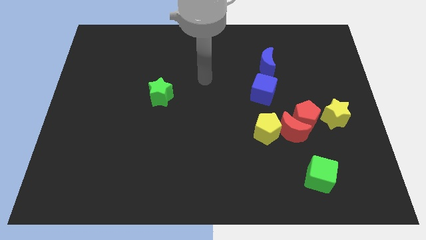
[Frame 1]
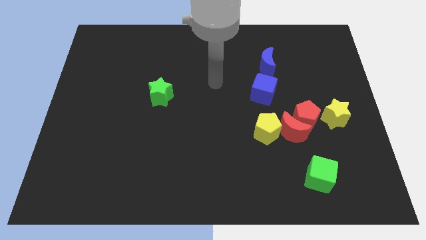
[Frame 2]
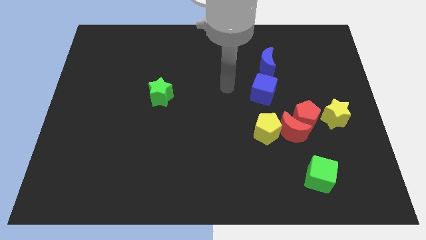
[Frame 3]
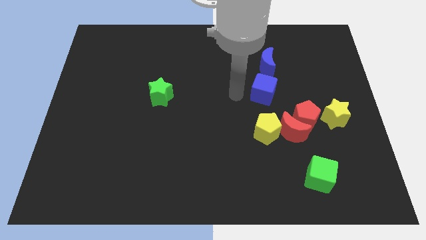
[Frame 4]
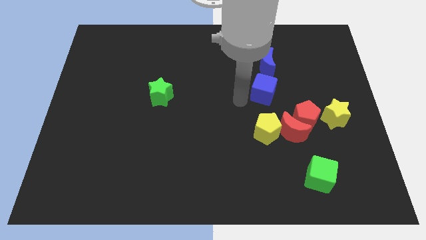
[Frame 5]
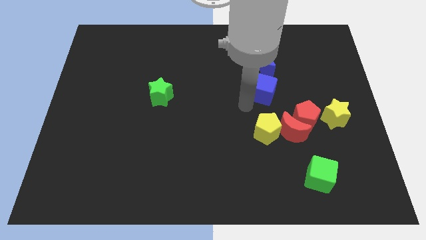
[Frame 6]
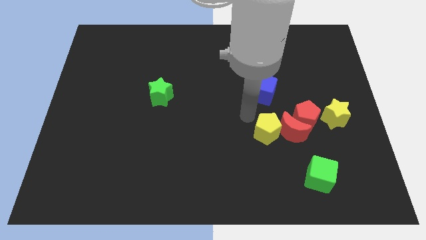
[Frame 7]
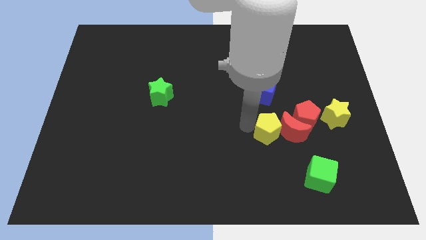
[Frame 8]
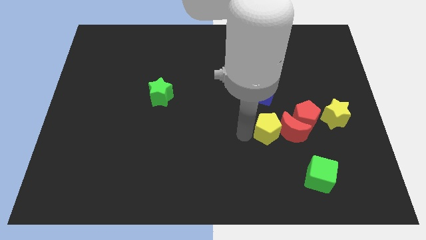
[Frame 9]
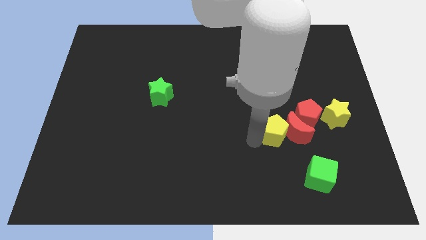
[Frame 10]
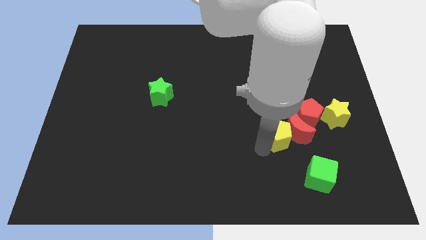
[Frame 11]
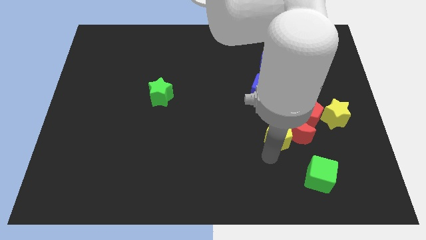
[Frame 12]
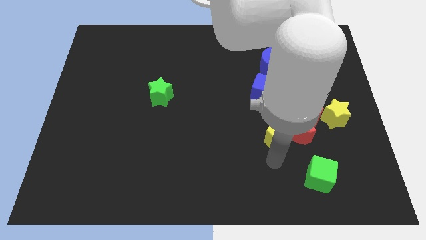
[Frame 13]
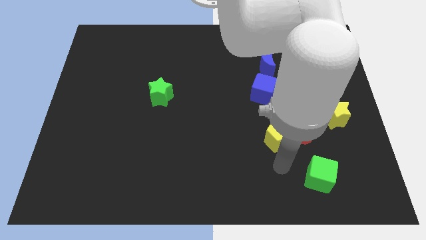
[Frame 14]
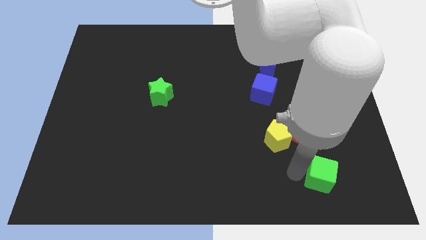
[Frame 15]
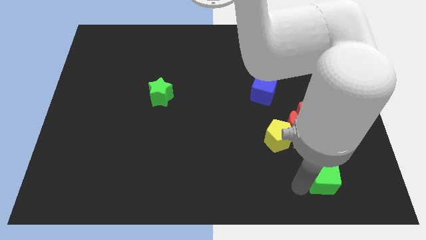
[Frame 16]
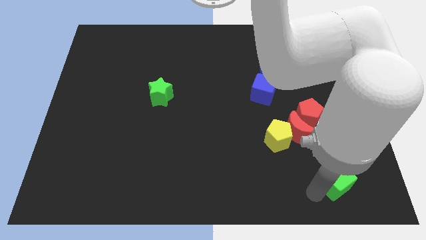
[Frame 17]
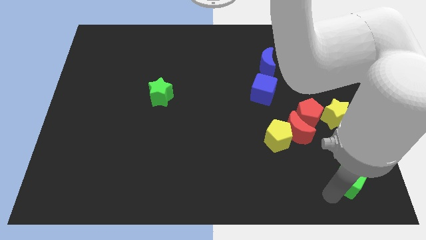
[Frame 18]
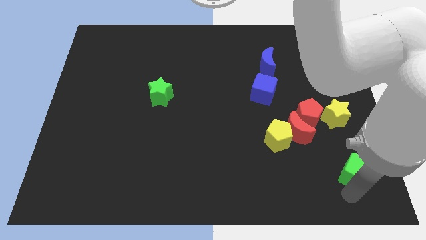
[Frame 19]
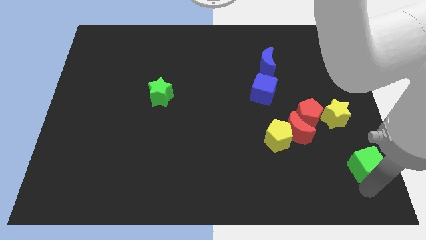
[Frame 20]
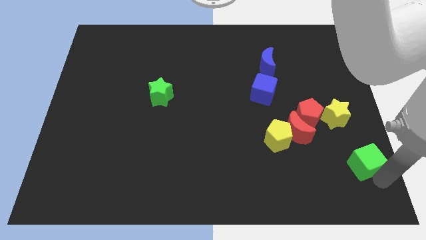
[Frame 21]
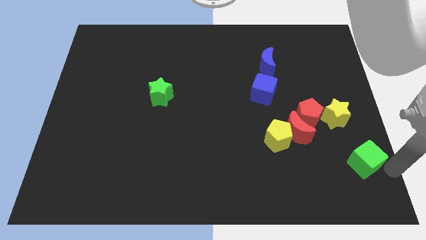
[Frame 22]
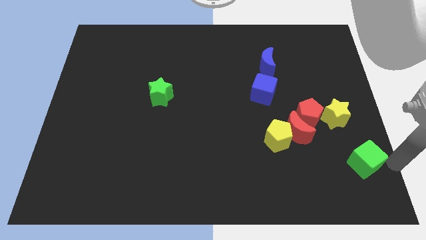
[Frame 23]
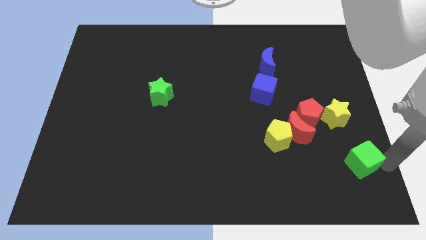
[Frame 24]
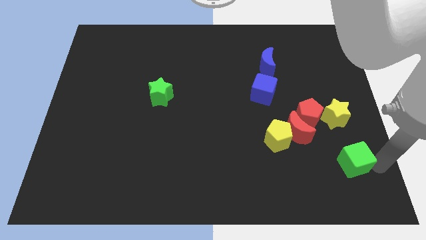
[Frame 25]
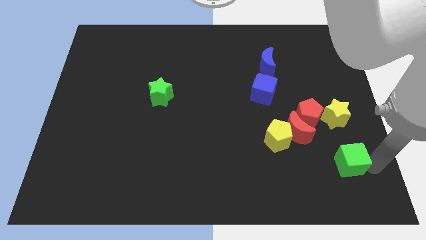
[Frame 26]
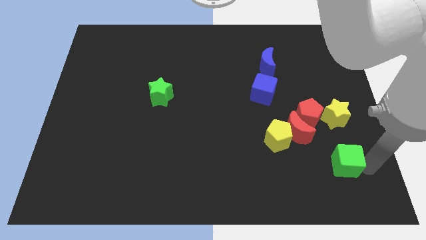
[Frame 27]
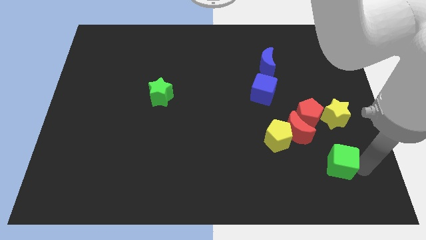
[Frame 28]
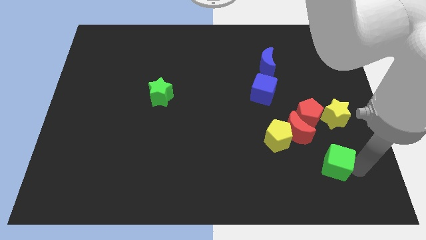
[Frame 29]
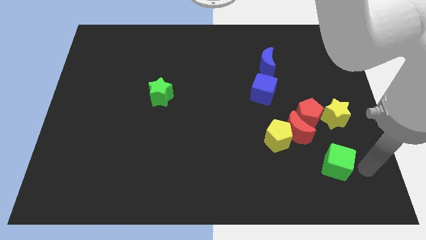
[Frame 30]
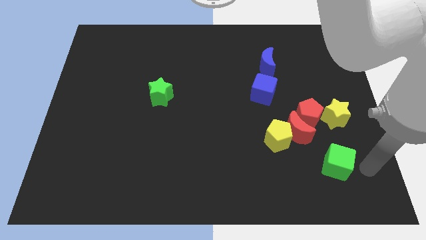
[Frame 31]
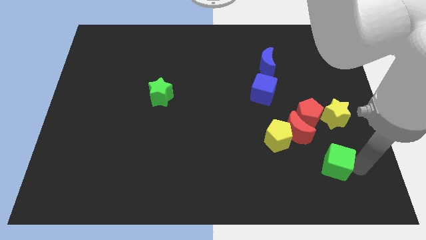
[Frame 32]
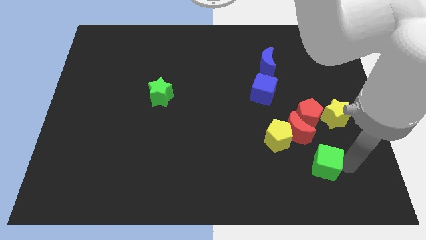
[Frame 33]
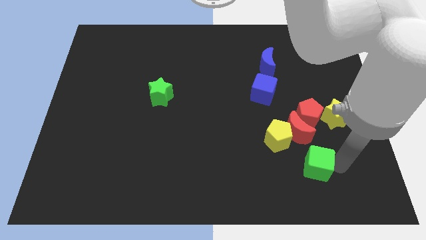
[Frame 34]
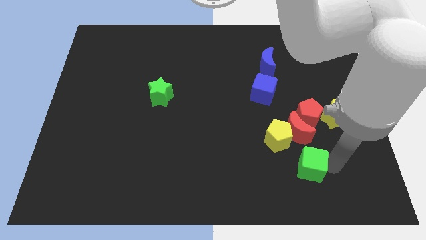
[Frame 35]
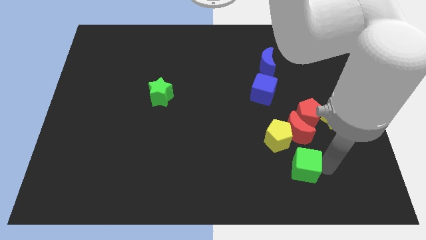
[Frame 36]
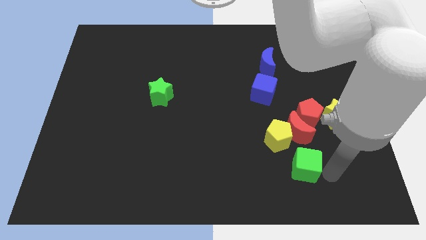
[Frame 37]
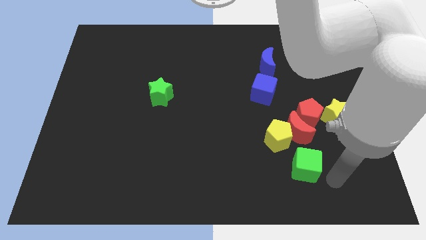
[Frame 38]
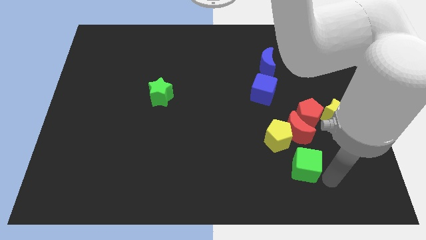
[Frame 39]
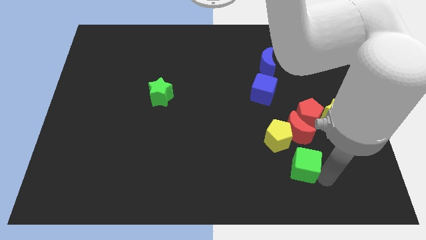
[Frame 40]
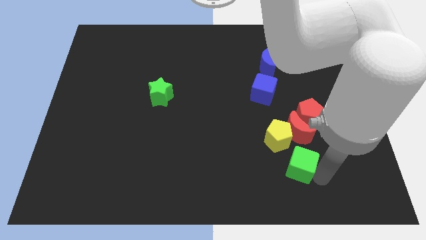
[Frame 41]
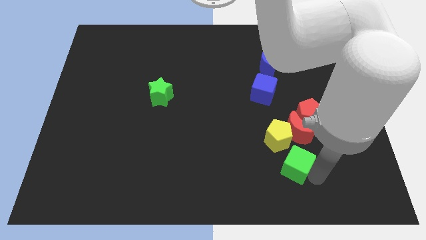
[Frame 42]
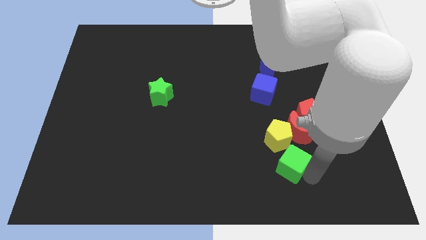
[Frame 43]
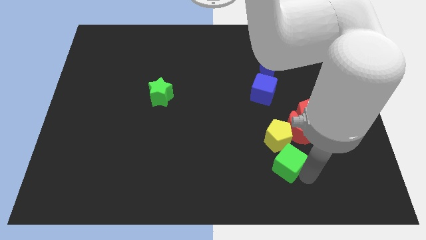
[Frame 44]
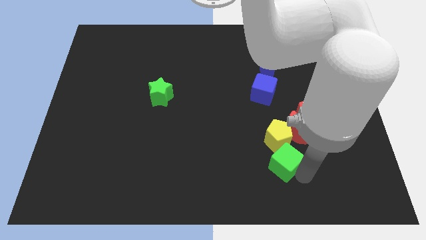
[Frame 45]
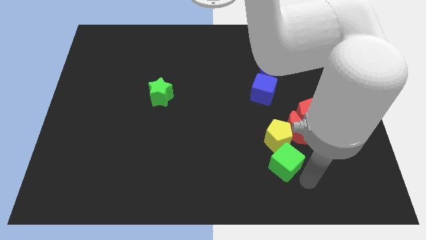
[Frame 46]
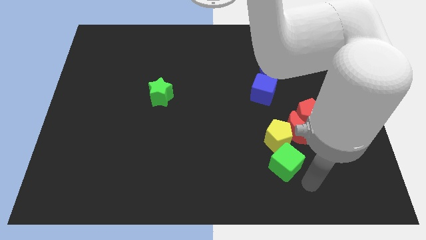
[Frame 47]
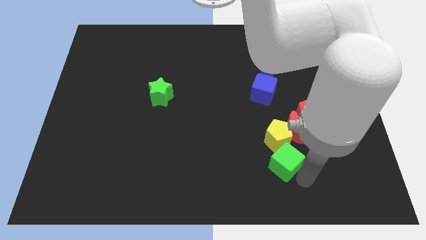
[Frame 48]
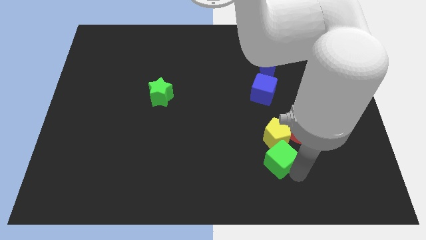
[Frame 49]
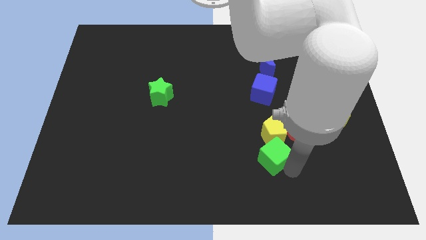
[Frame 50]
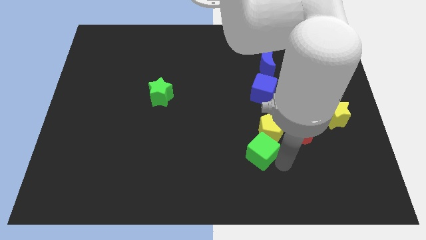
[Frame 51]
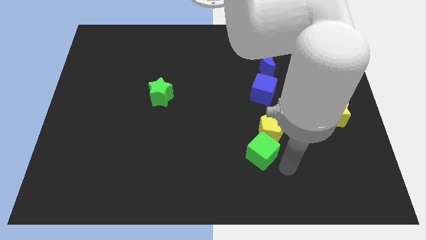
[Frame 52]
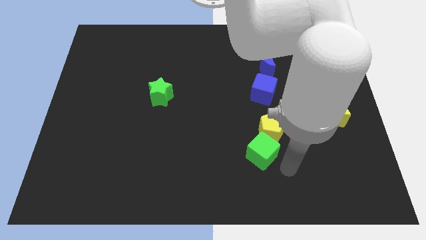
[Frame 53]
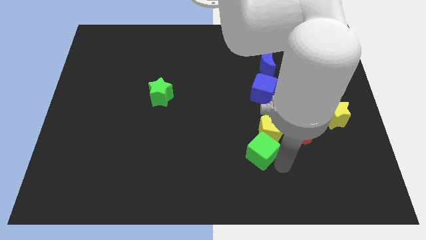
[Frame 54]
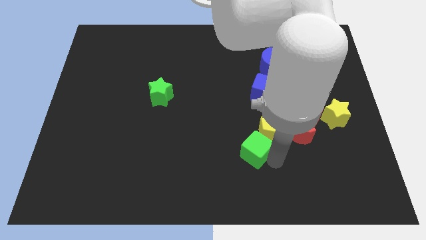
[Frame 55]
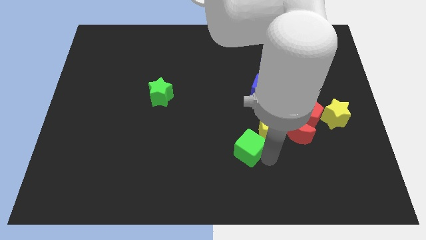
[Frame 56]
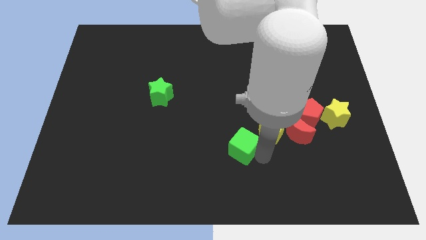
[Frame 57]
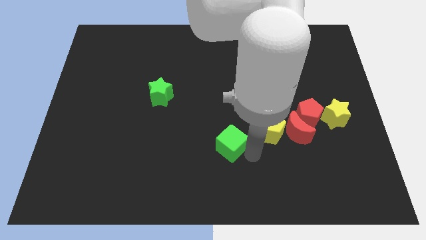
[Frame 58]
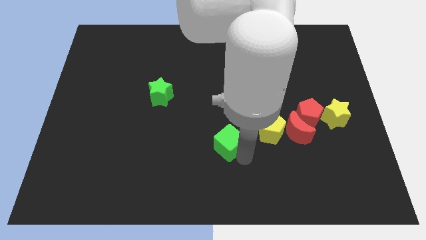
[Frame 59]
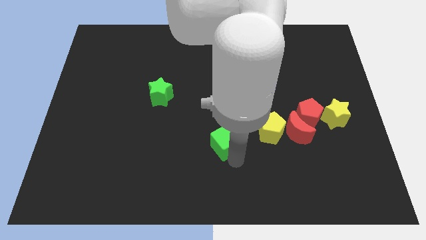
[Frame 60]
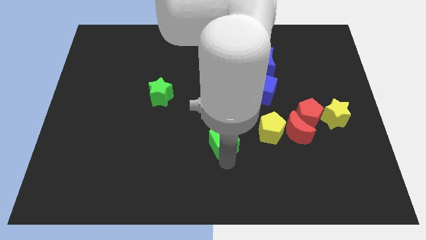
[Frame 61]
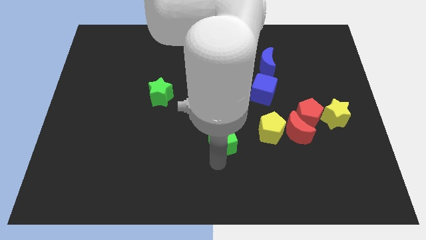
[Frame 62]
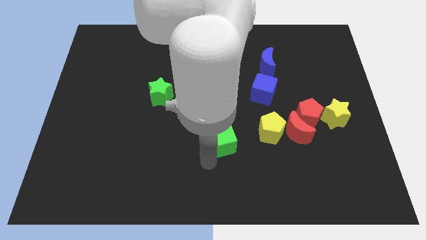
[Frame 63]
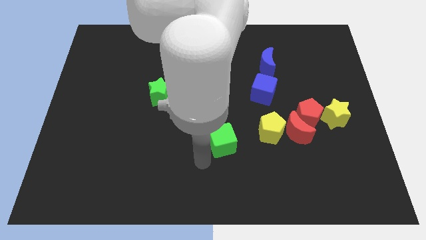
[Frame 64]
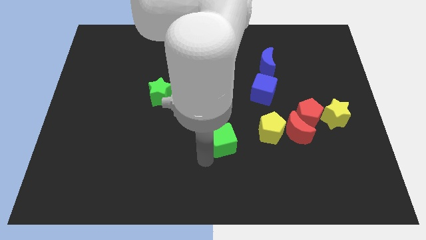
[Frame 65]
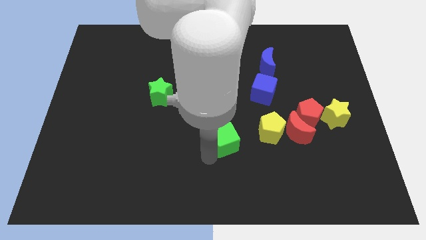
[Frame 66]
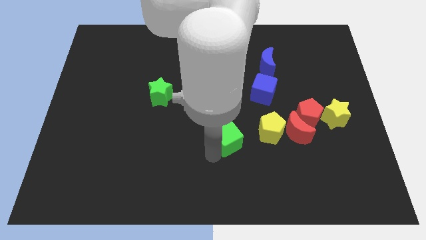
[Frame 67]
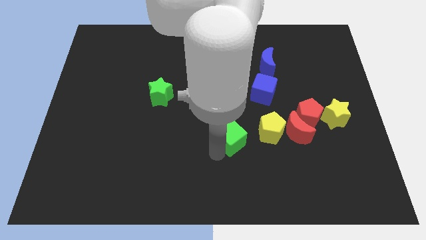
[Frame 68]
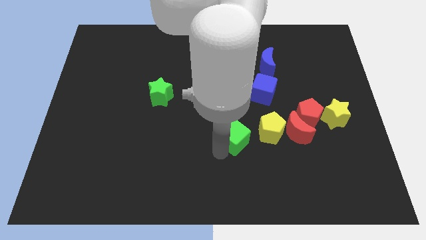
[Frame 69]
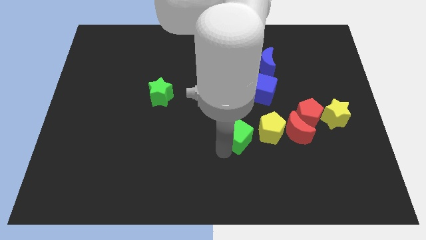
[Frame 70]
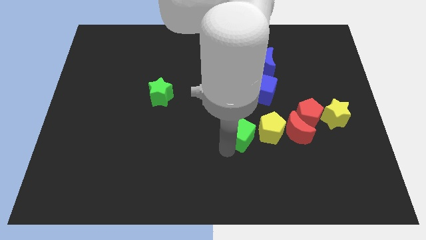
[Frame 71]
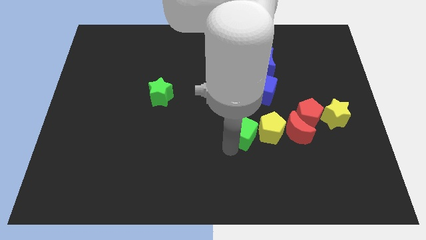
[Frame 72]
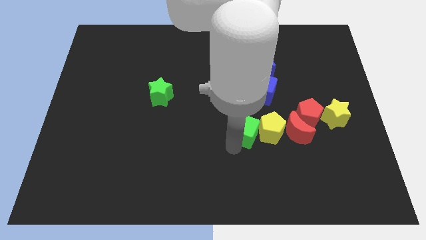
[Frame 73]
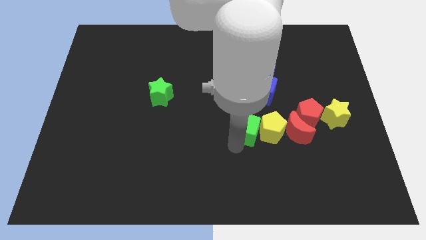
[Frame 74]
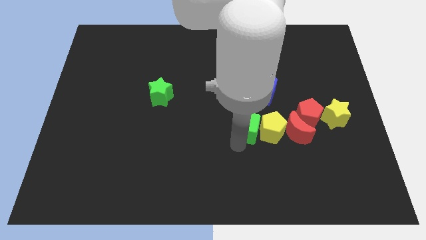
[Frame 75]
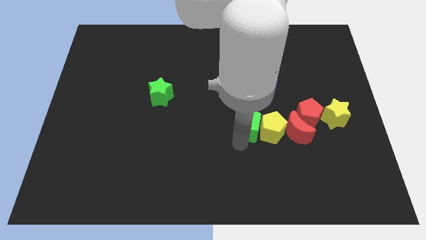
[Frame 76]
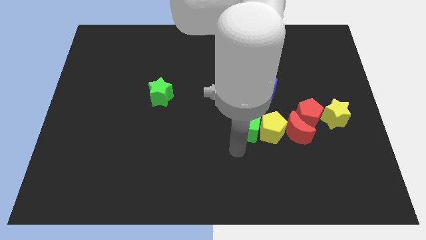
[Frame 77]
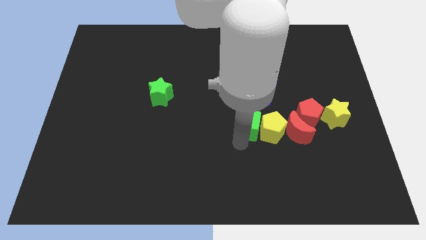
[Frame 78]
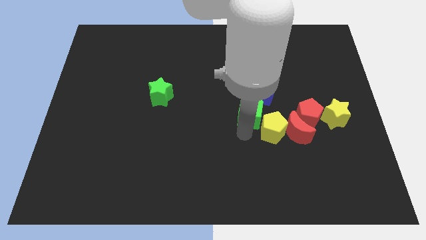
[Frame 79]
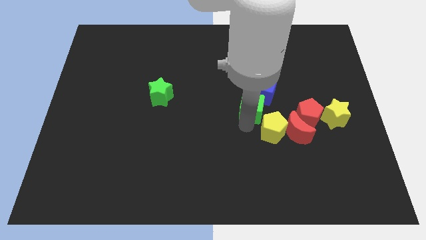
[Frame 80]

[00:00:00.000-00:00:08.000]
slide the green cube towards the blue cube

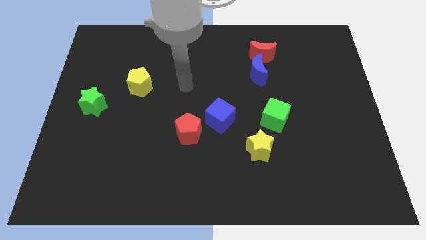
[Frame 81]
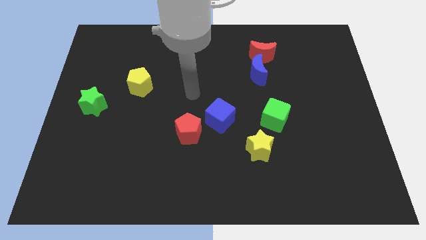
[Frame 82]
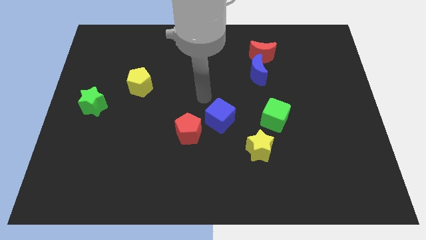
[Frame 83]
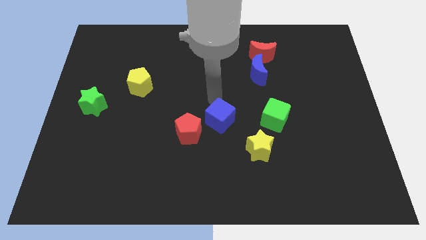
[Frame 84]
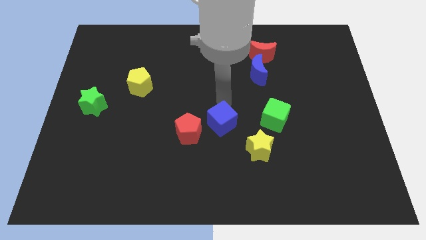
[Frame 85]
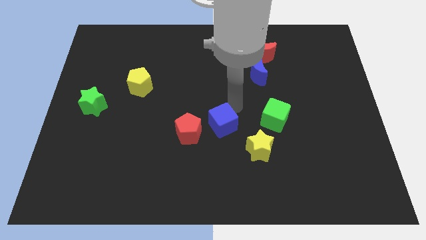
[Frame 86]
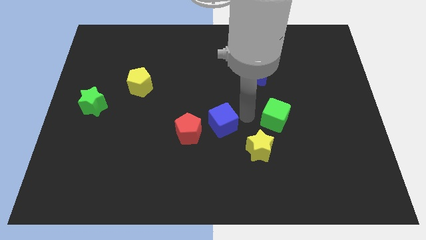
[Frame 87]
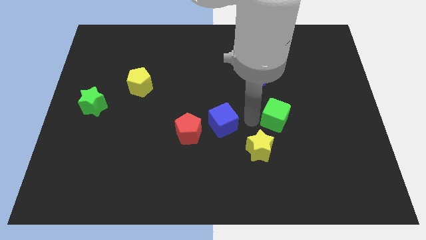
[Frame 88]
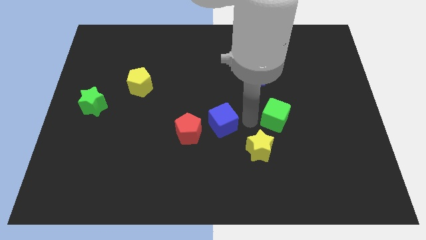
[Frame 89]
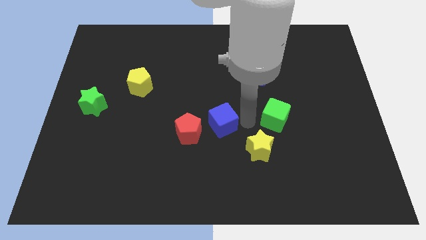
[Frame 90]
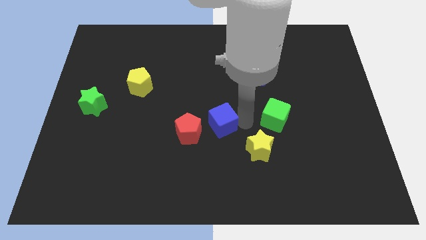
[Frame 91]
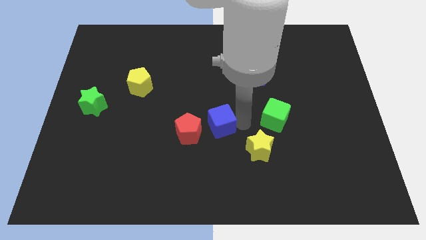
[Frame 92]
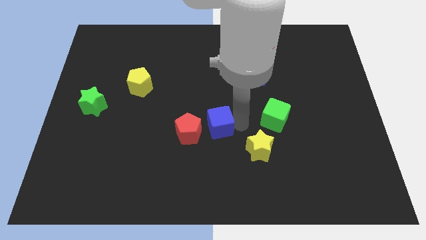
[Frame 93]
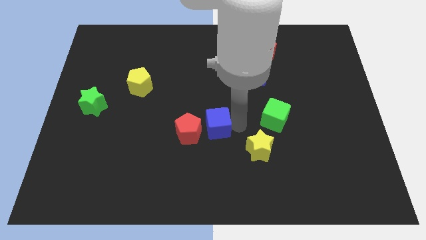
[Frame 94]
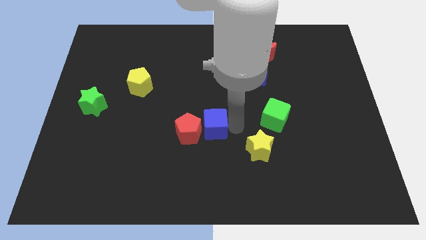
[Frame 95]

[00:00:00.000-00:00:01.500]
slide the blue cube to the red pentagon
